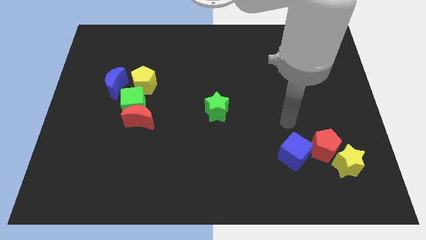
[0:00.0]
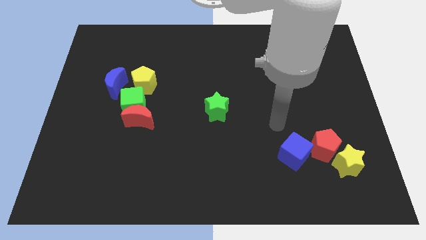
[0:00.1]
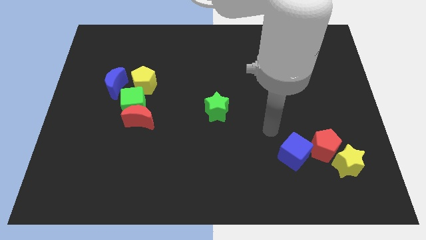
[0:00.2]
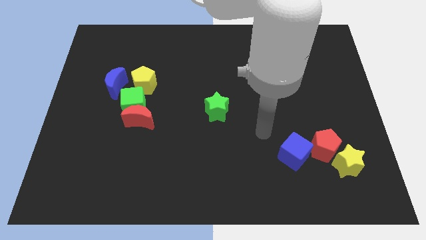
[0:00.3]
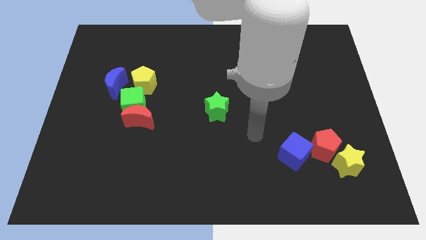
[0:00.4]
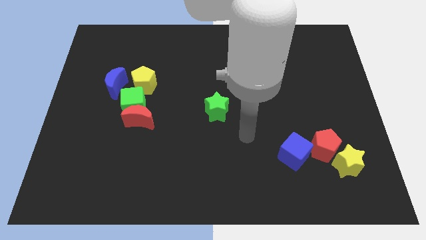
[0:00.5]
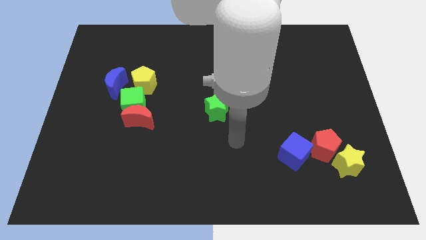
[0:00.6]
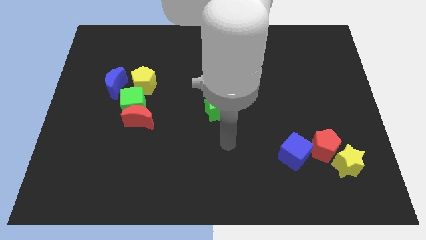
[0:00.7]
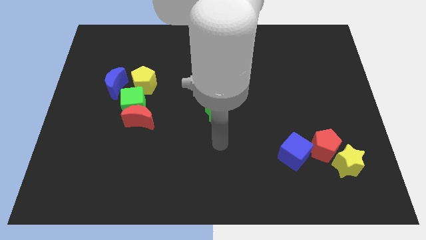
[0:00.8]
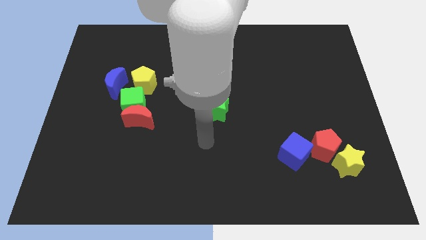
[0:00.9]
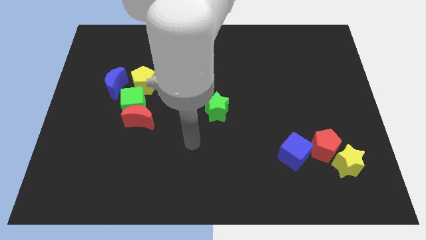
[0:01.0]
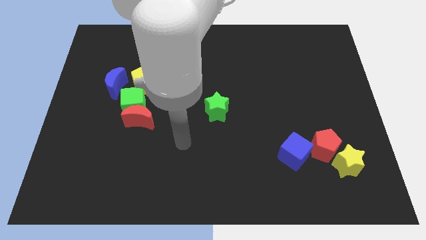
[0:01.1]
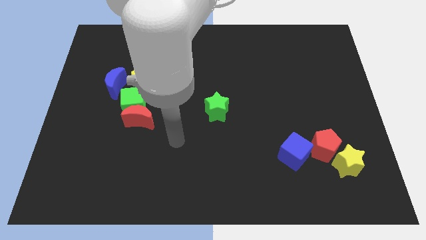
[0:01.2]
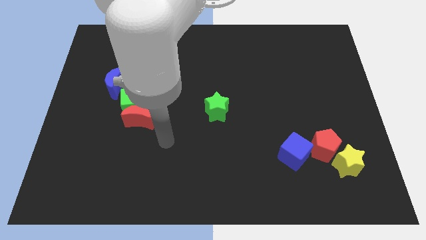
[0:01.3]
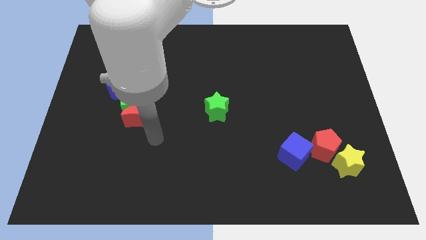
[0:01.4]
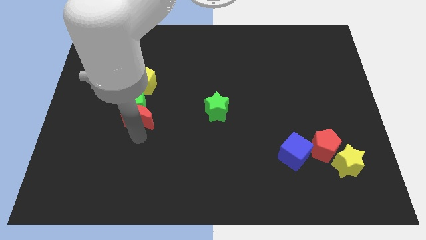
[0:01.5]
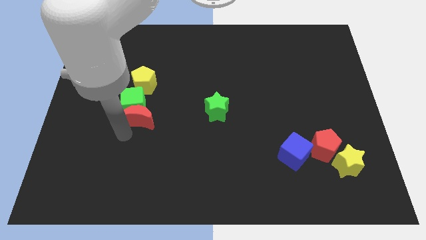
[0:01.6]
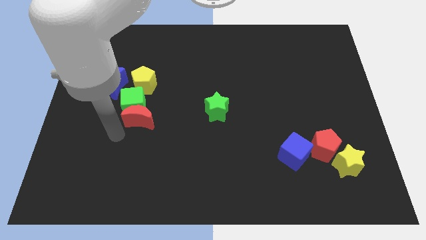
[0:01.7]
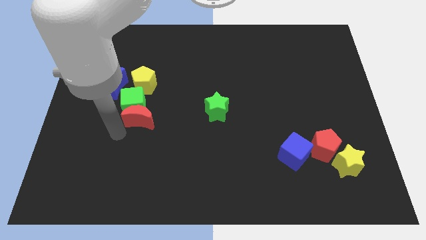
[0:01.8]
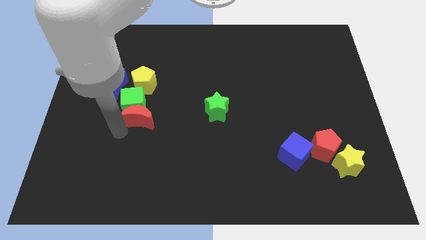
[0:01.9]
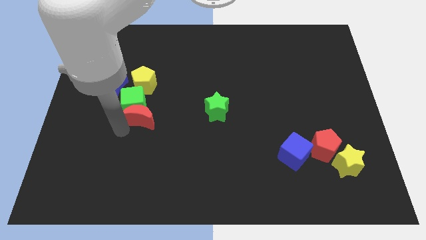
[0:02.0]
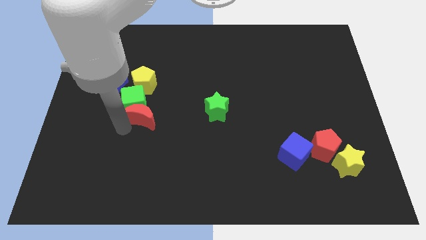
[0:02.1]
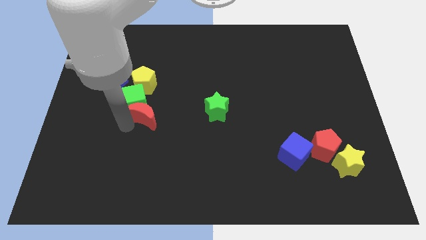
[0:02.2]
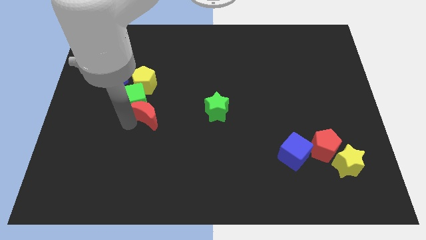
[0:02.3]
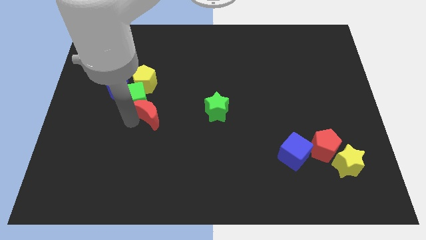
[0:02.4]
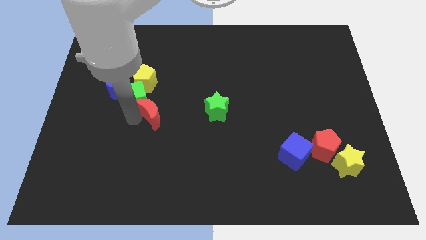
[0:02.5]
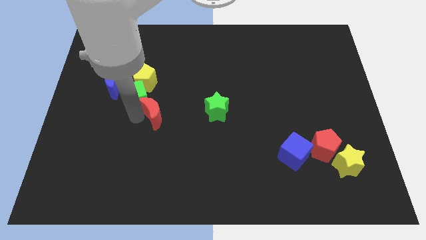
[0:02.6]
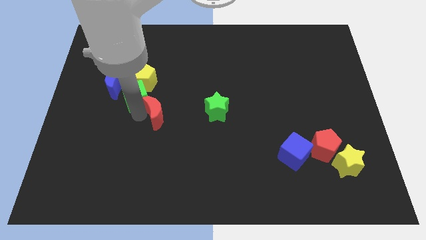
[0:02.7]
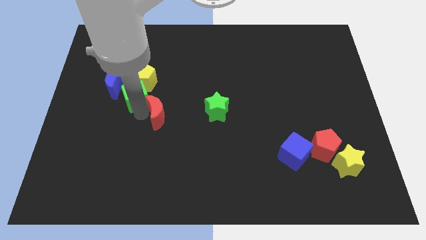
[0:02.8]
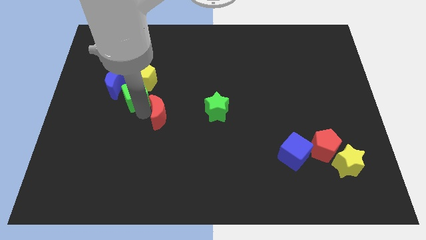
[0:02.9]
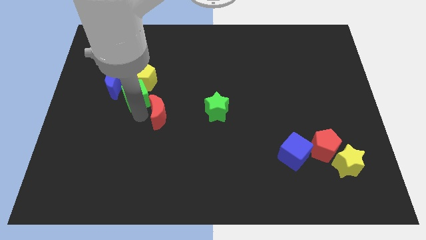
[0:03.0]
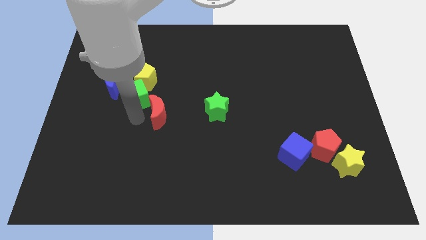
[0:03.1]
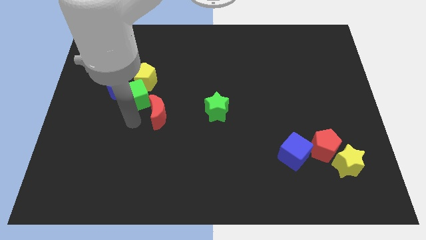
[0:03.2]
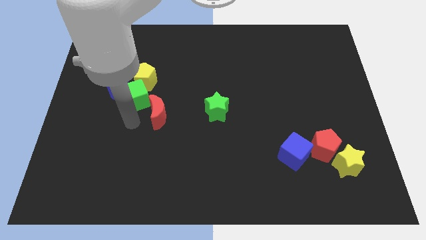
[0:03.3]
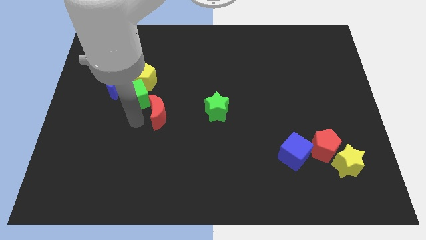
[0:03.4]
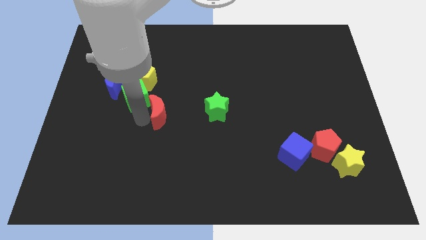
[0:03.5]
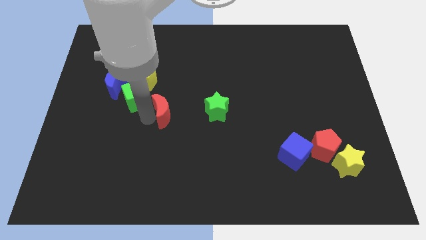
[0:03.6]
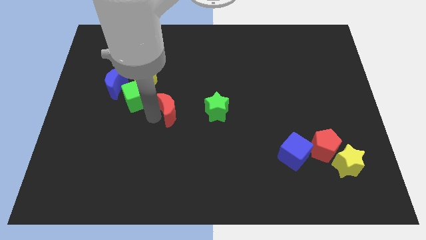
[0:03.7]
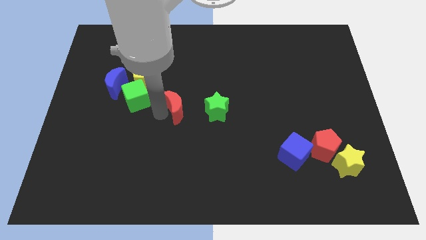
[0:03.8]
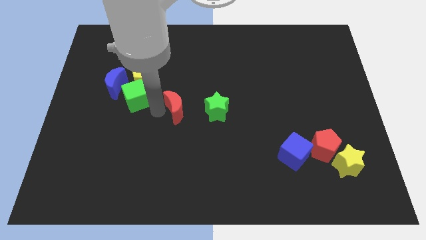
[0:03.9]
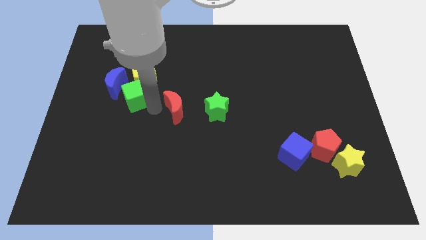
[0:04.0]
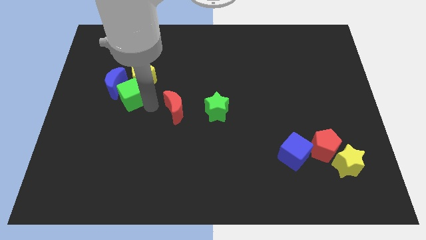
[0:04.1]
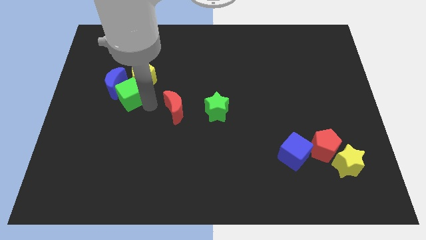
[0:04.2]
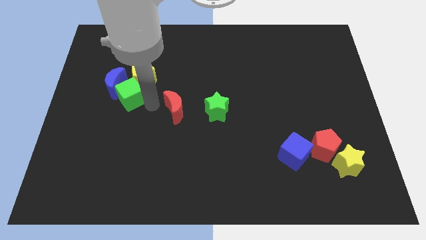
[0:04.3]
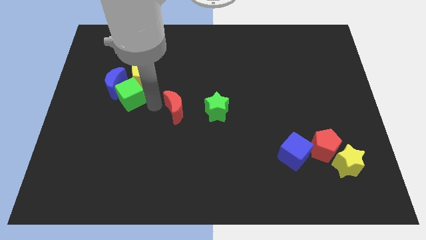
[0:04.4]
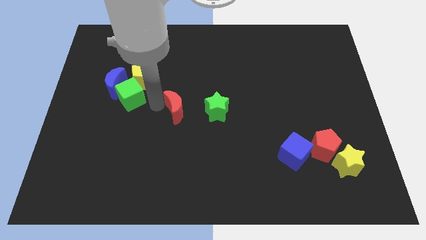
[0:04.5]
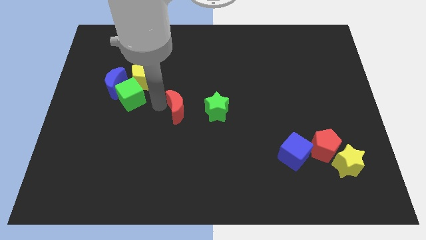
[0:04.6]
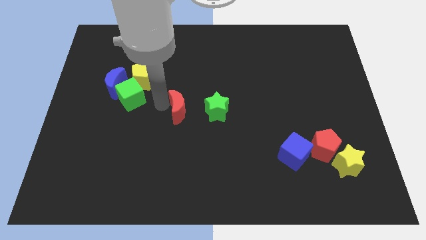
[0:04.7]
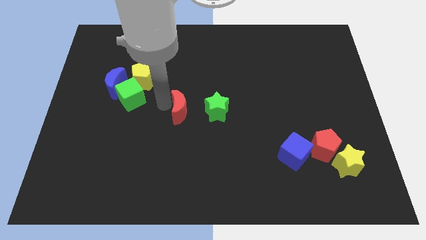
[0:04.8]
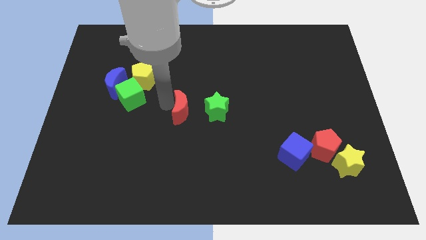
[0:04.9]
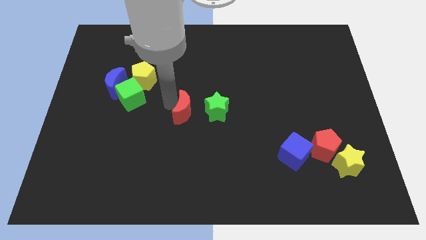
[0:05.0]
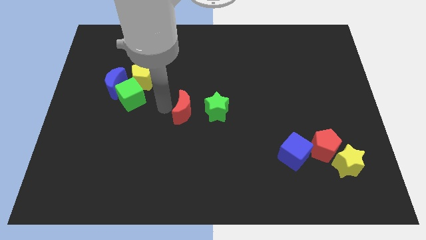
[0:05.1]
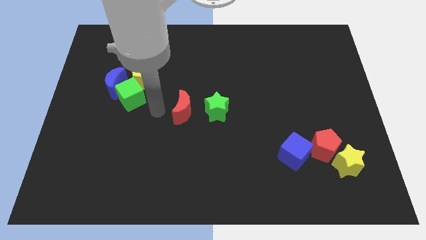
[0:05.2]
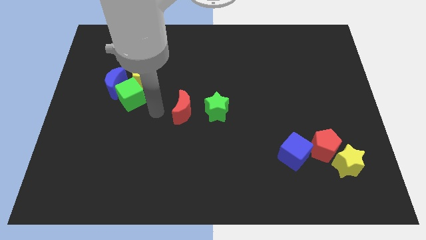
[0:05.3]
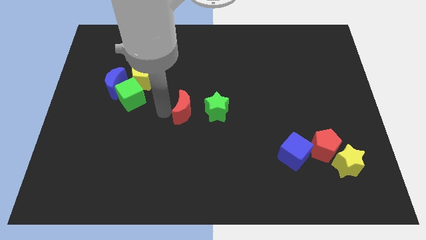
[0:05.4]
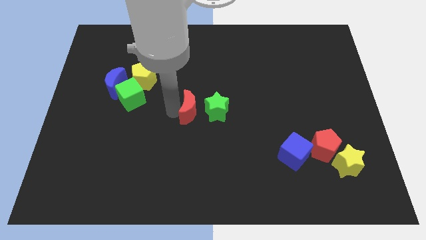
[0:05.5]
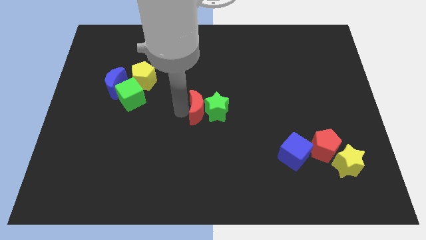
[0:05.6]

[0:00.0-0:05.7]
push the red moon towards the green star
